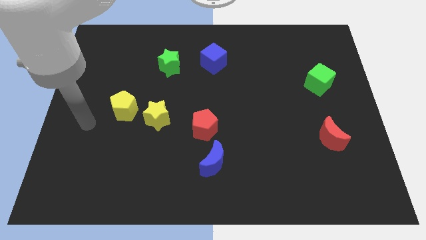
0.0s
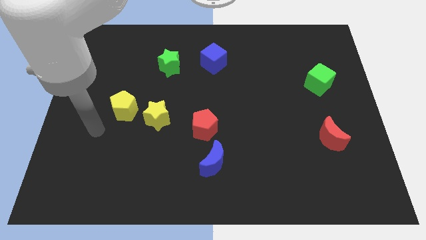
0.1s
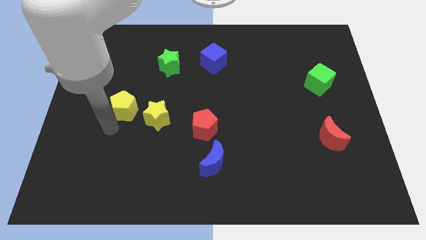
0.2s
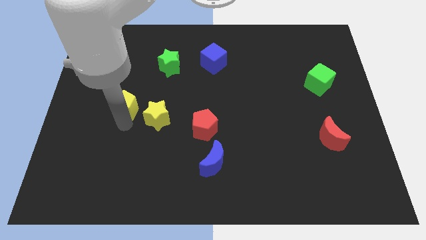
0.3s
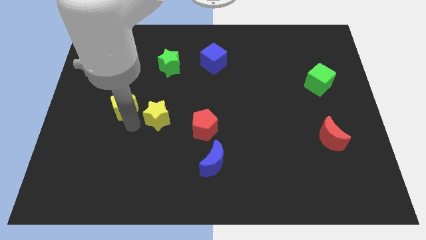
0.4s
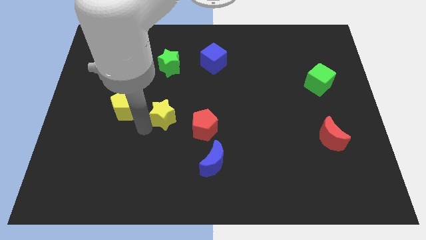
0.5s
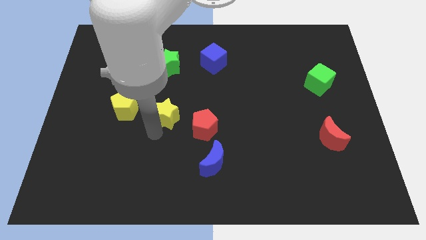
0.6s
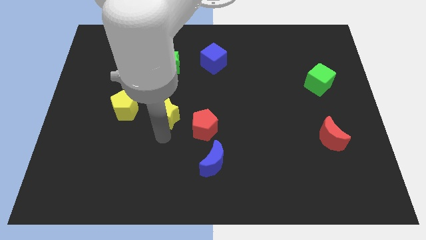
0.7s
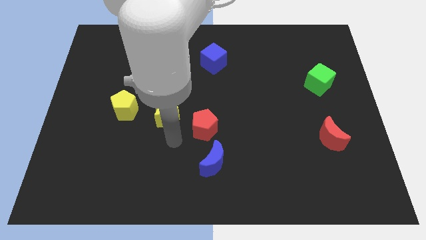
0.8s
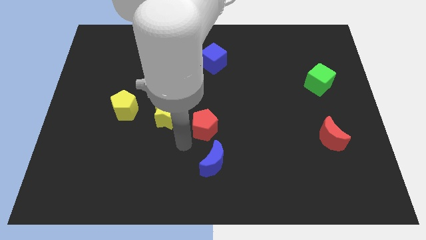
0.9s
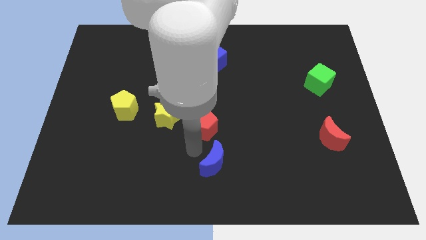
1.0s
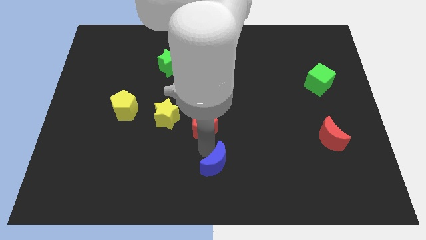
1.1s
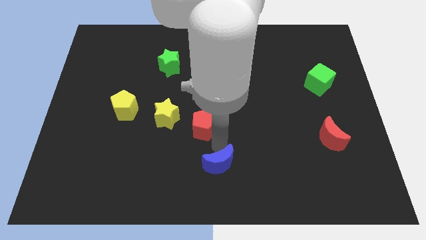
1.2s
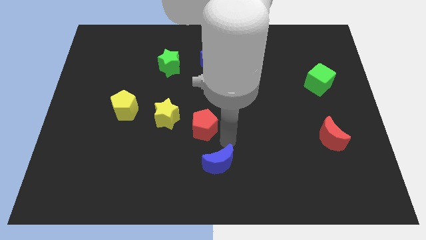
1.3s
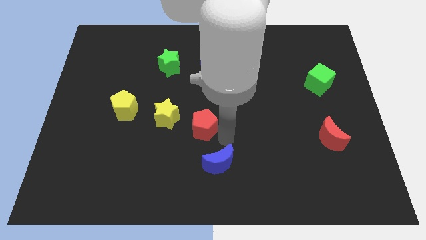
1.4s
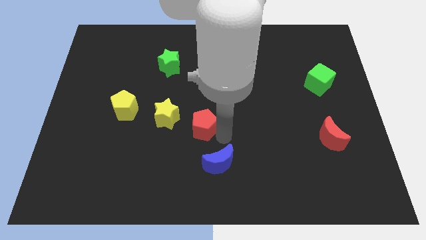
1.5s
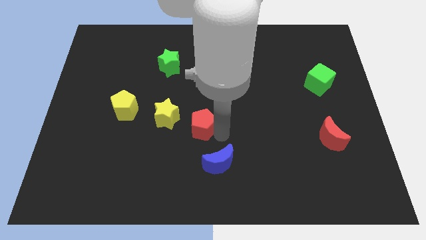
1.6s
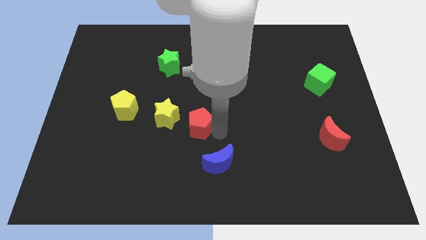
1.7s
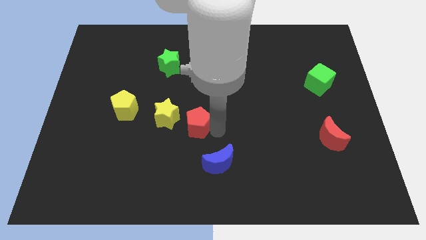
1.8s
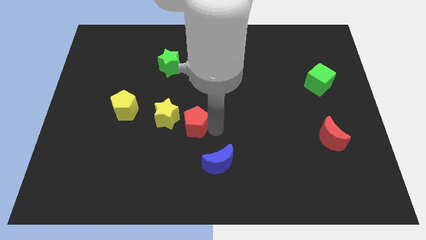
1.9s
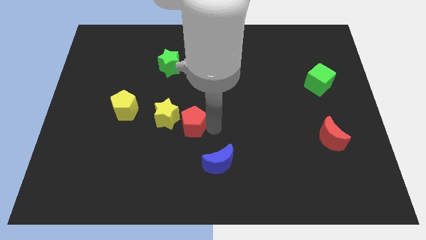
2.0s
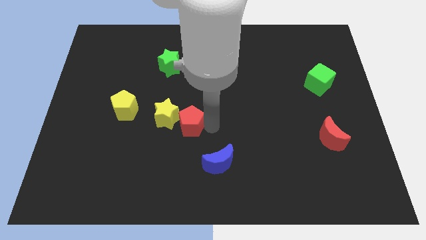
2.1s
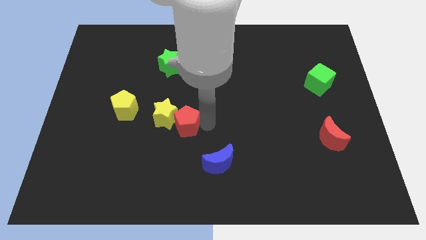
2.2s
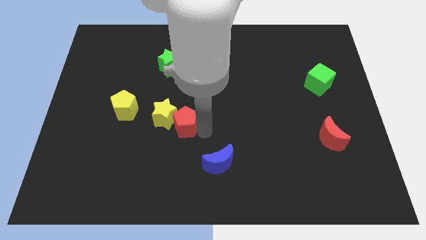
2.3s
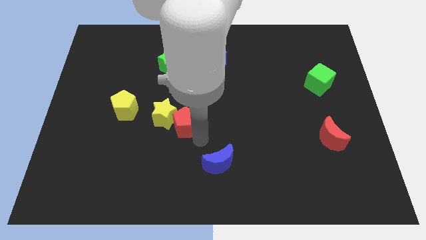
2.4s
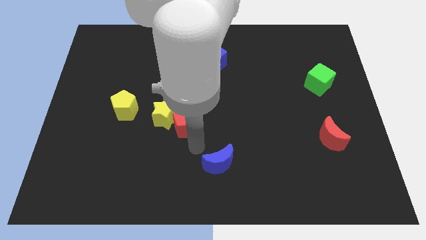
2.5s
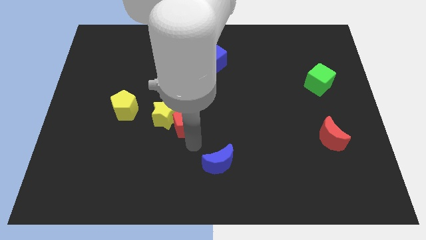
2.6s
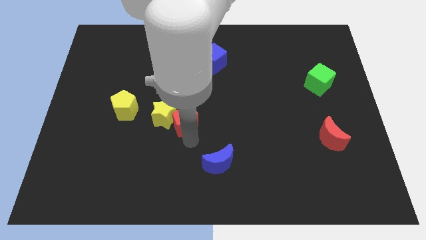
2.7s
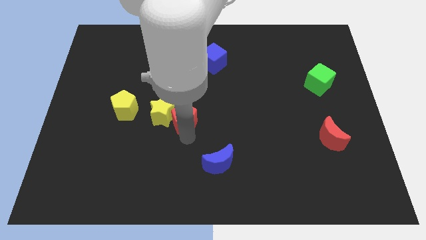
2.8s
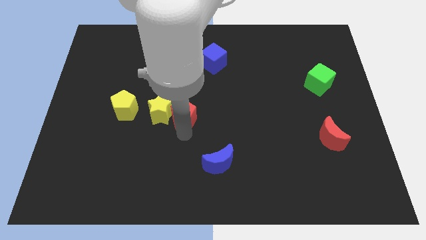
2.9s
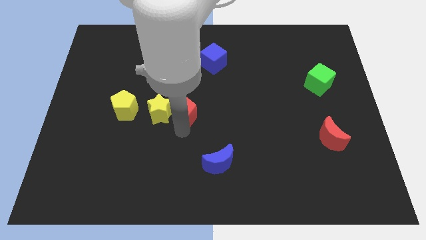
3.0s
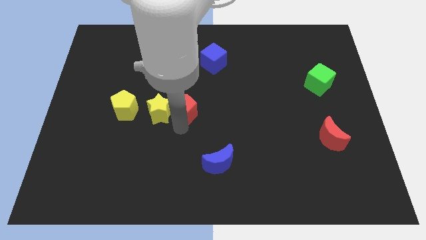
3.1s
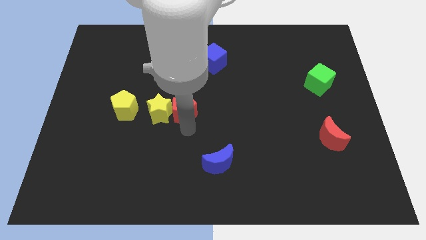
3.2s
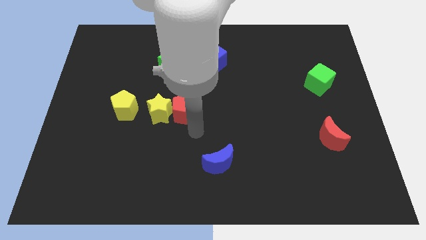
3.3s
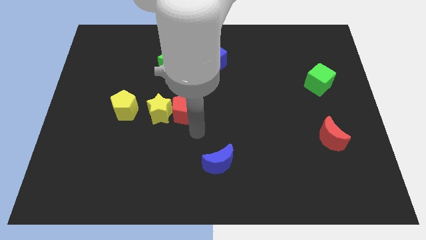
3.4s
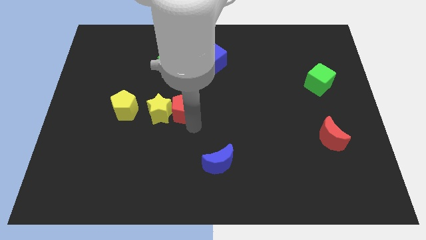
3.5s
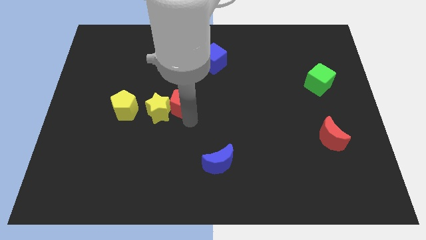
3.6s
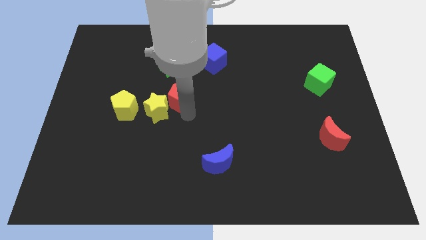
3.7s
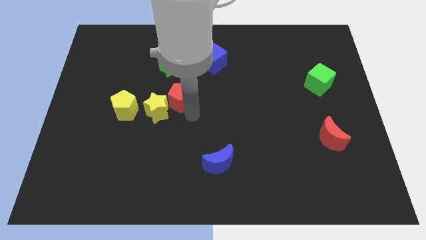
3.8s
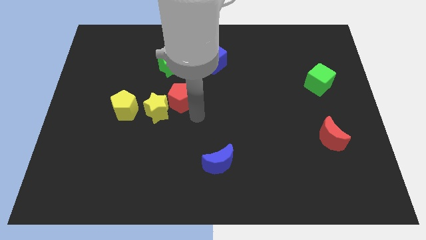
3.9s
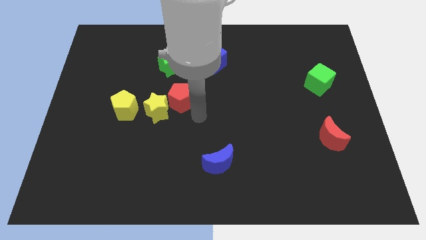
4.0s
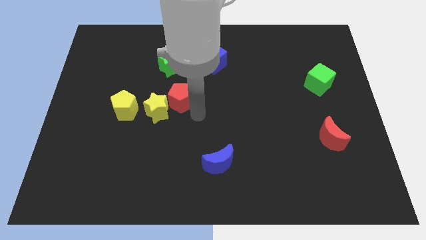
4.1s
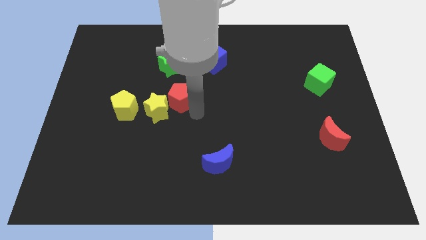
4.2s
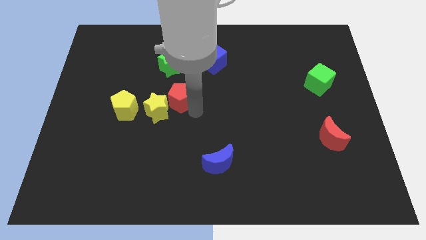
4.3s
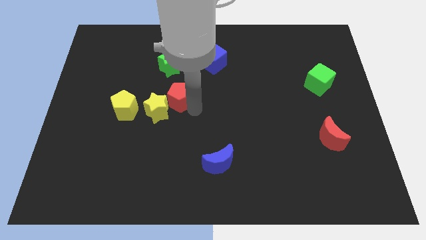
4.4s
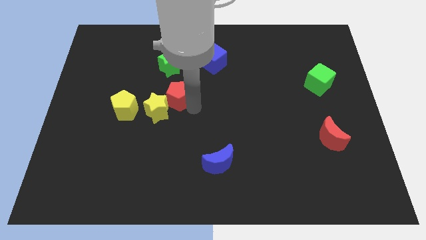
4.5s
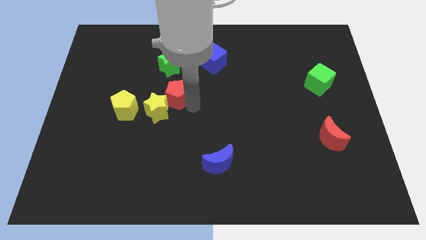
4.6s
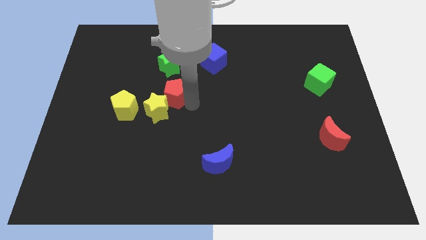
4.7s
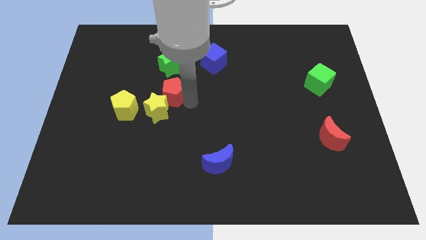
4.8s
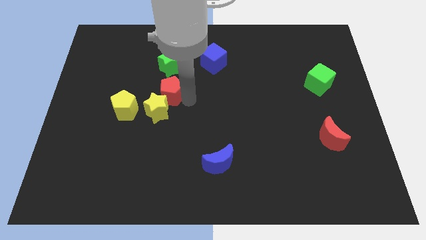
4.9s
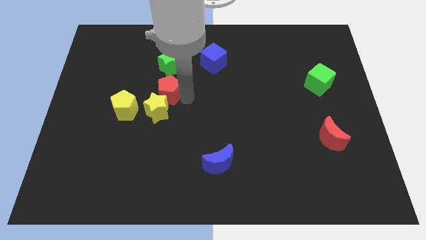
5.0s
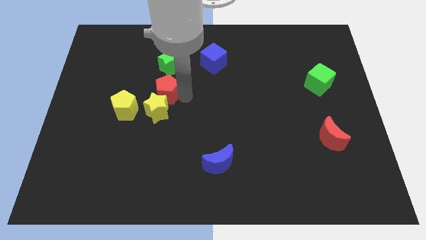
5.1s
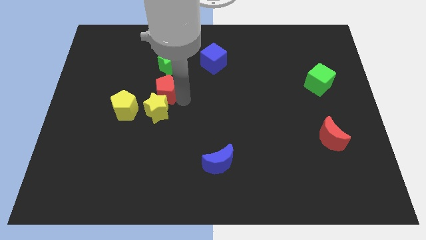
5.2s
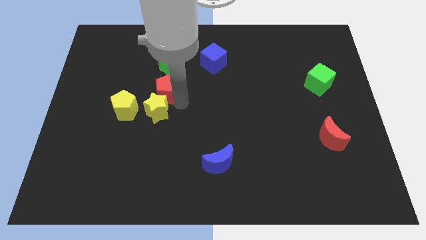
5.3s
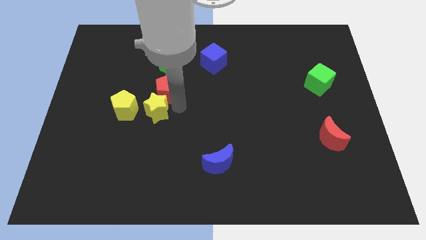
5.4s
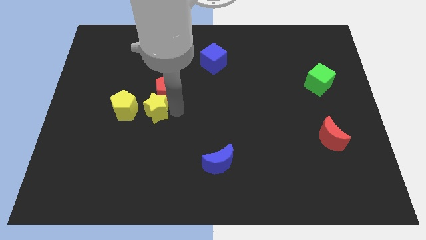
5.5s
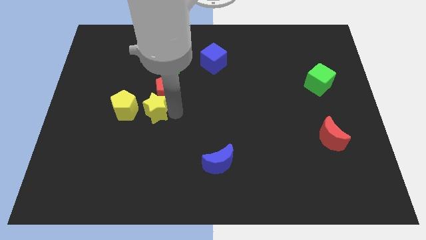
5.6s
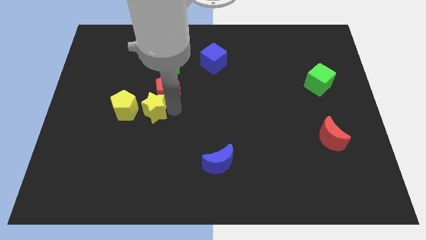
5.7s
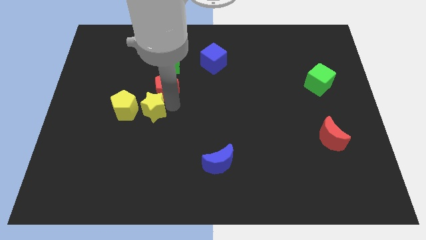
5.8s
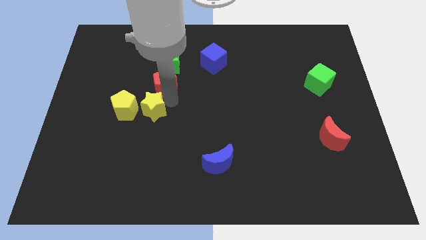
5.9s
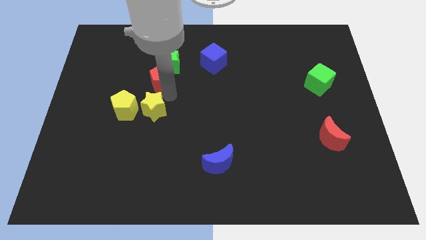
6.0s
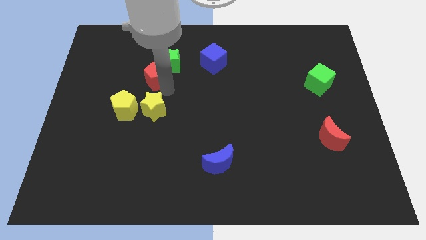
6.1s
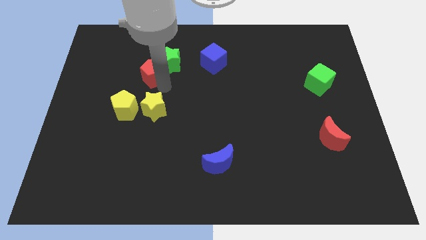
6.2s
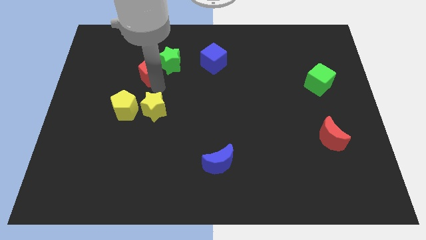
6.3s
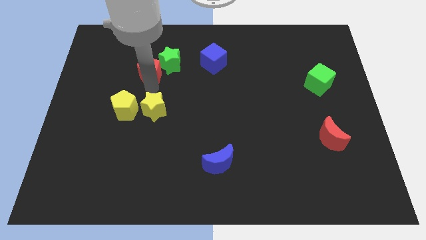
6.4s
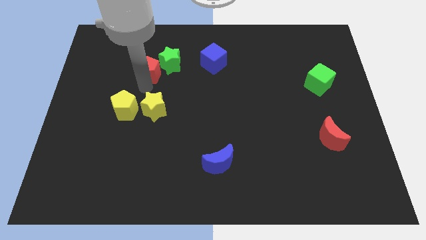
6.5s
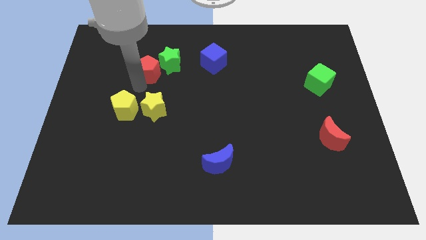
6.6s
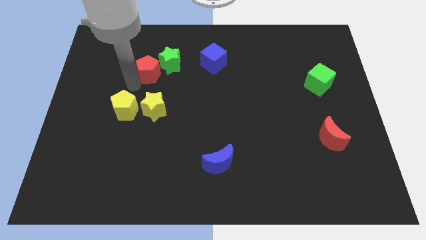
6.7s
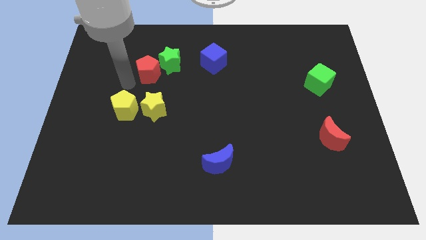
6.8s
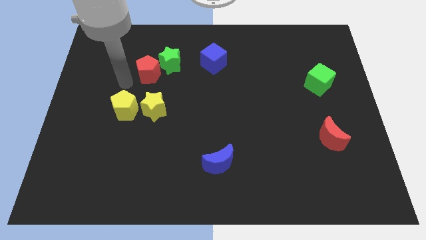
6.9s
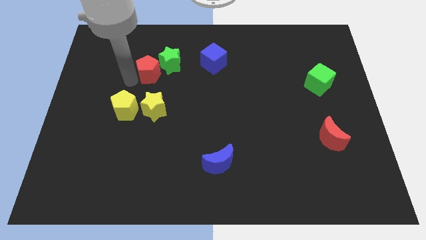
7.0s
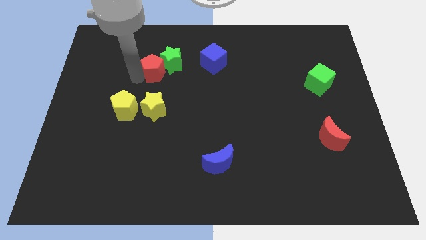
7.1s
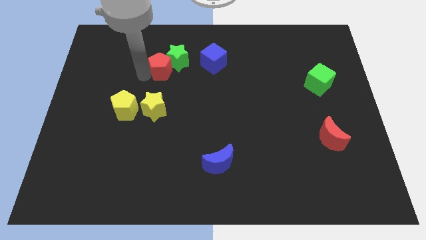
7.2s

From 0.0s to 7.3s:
push the red pentagon to the left of the blue cube

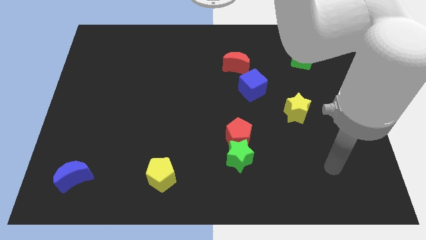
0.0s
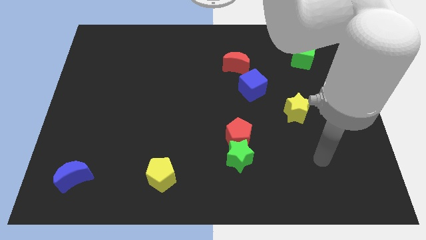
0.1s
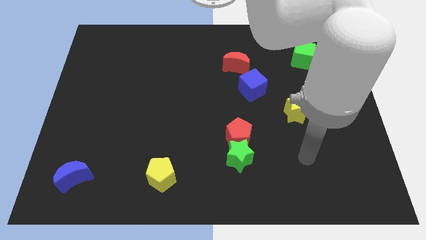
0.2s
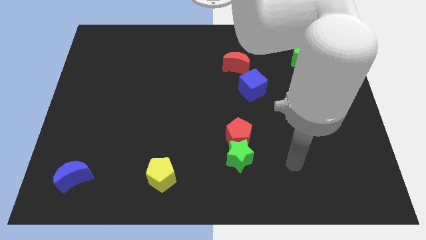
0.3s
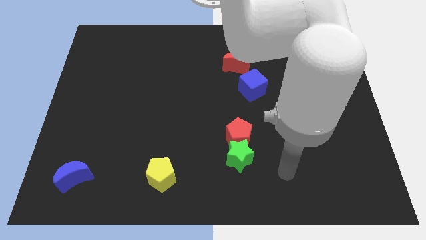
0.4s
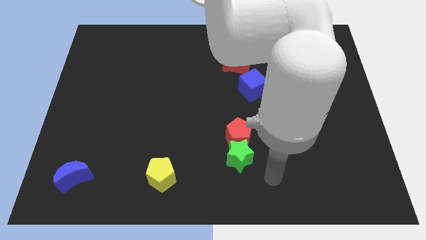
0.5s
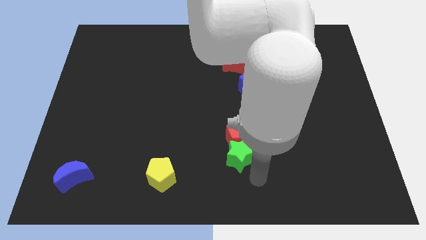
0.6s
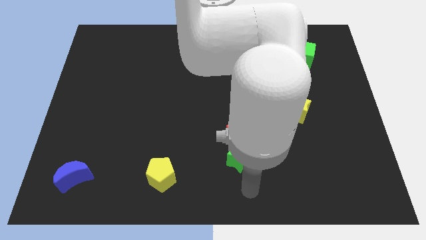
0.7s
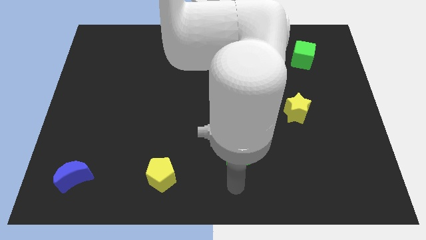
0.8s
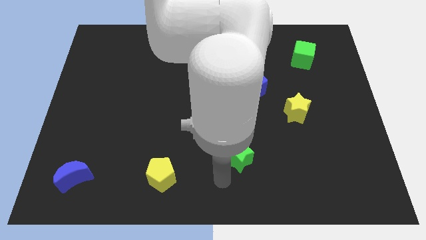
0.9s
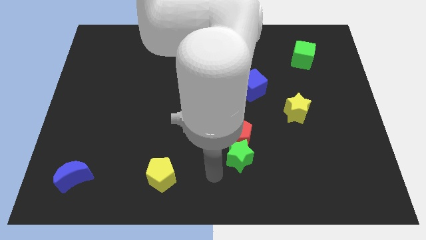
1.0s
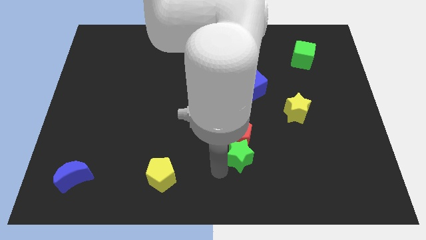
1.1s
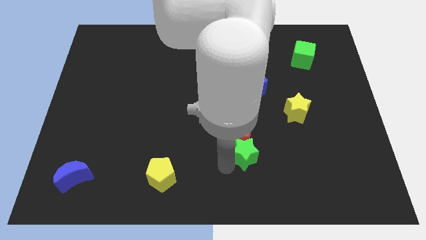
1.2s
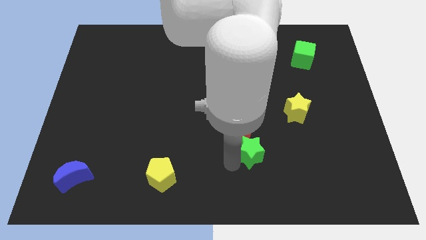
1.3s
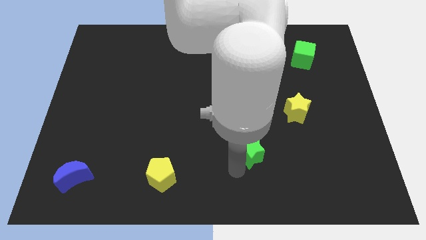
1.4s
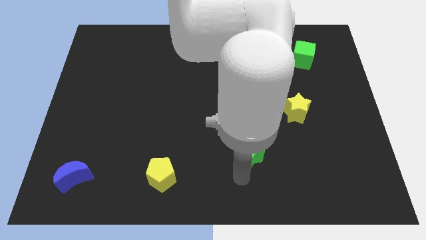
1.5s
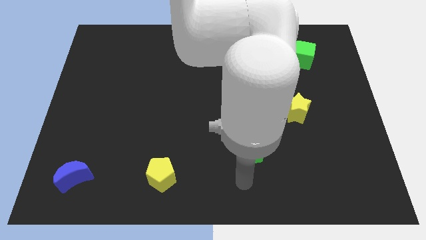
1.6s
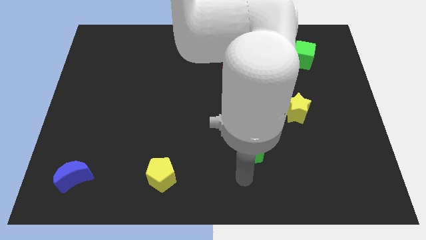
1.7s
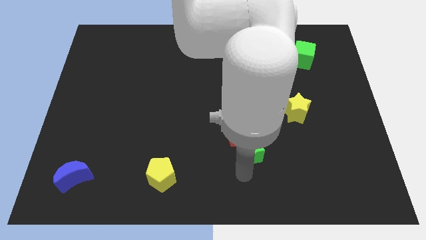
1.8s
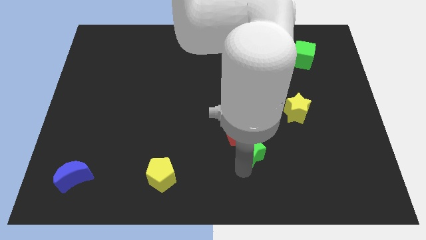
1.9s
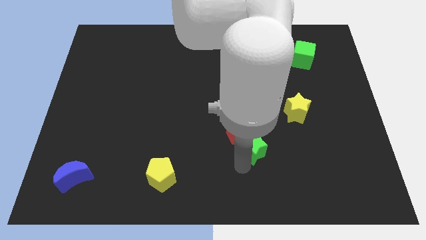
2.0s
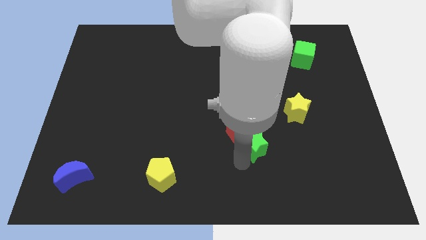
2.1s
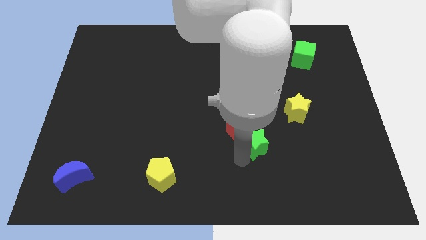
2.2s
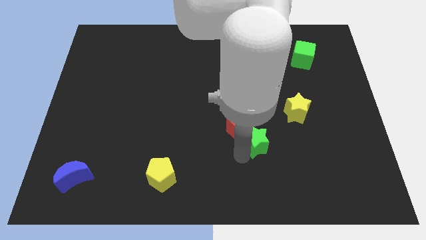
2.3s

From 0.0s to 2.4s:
slide the green star to the bottom side of the blue cube
